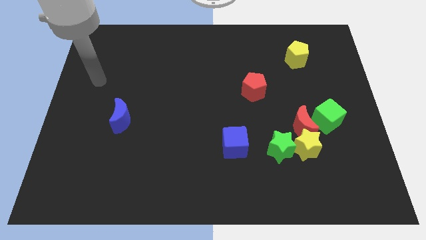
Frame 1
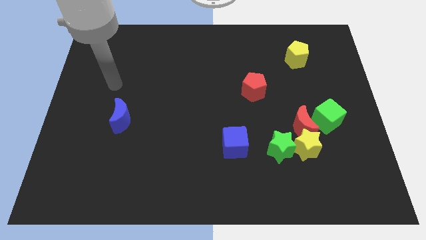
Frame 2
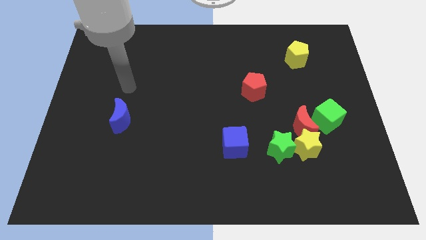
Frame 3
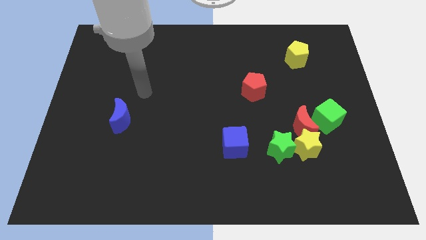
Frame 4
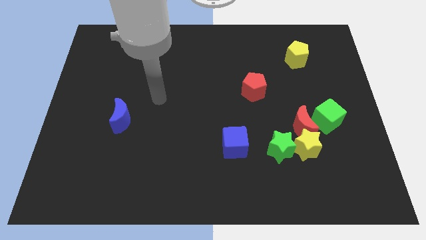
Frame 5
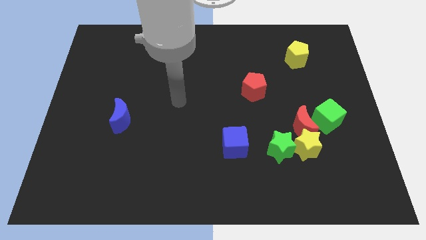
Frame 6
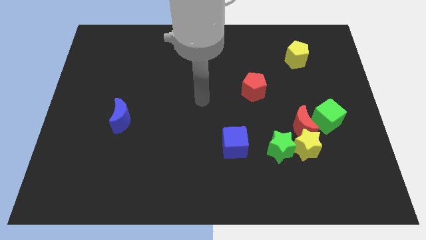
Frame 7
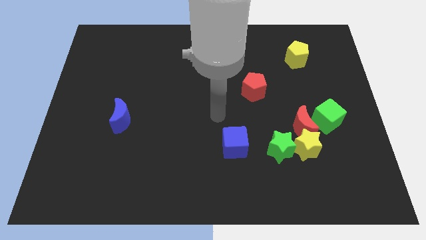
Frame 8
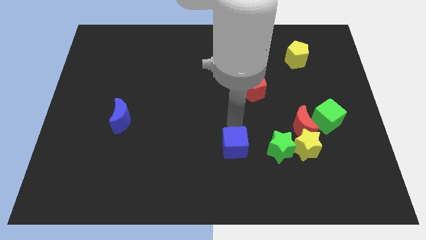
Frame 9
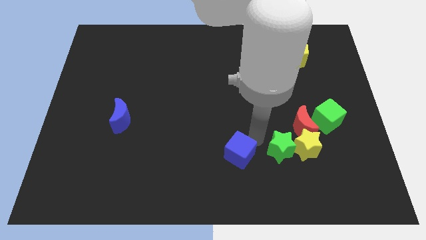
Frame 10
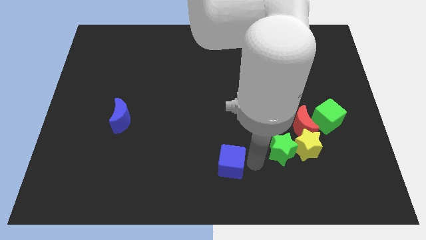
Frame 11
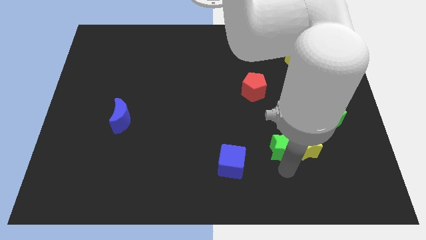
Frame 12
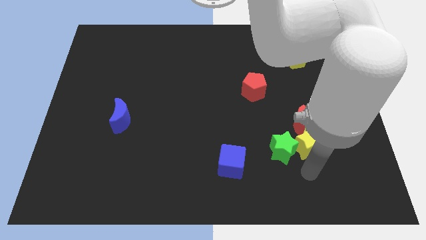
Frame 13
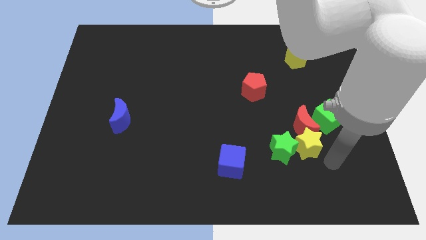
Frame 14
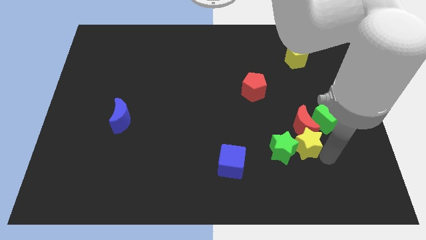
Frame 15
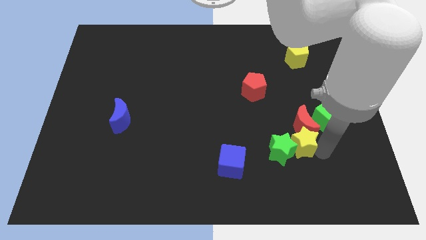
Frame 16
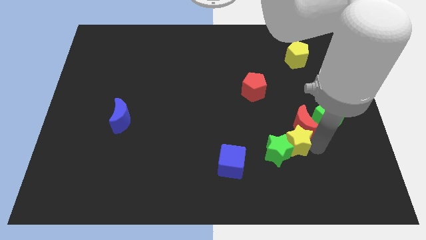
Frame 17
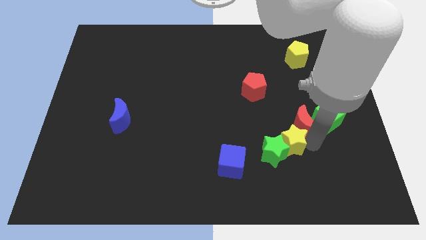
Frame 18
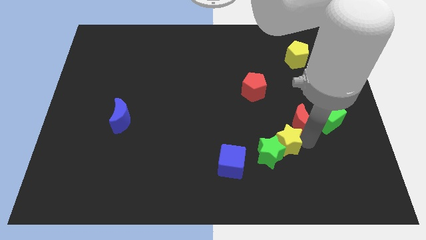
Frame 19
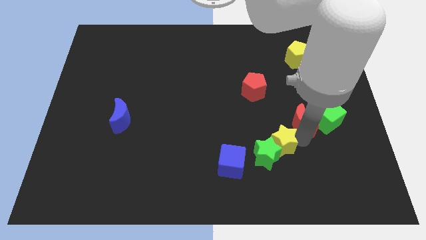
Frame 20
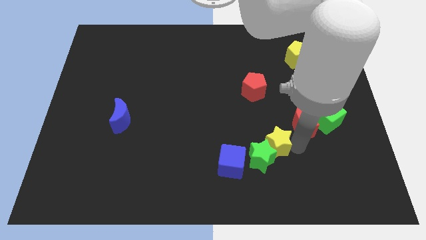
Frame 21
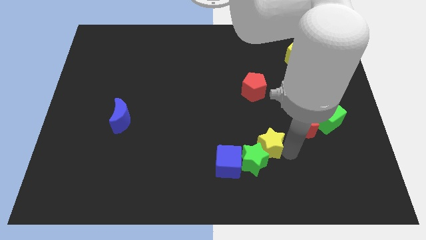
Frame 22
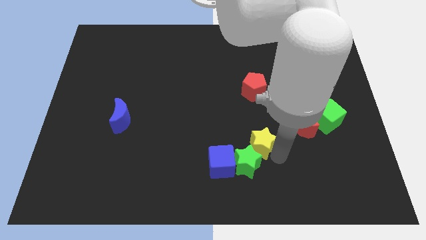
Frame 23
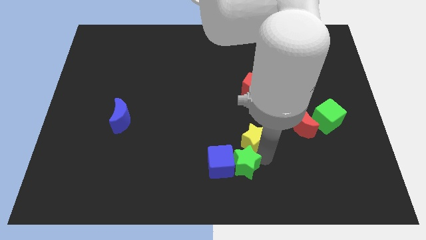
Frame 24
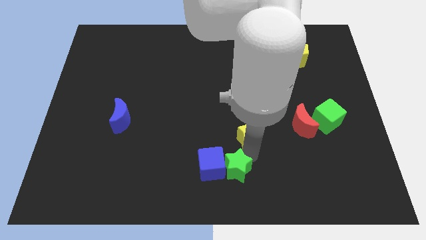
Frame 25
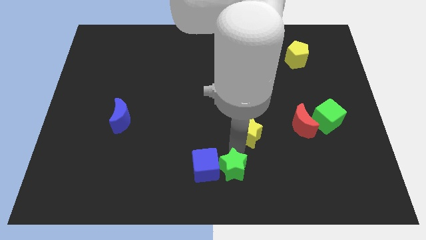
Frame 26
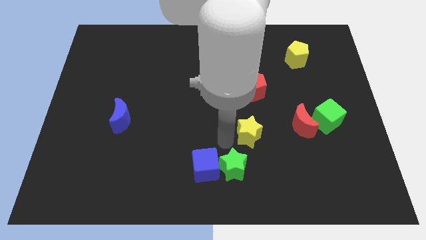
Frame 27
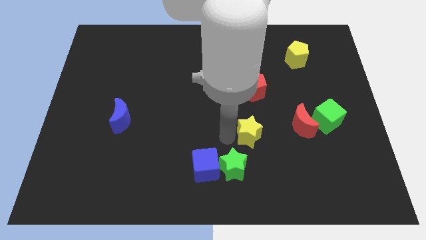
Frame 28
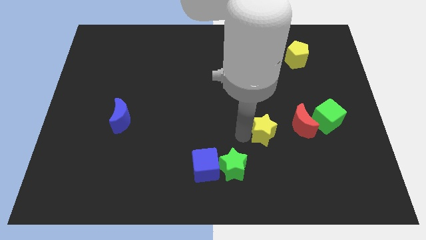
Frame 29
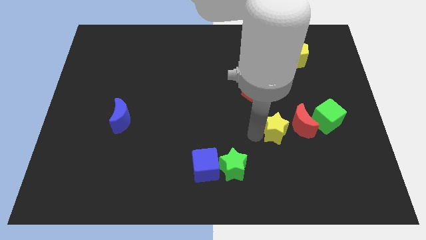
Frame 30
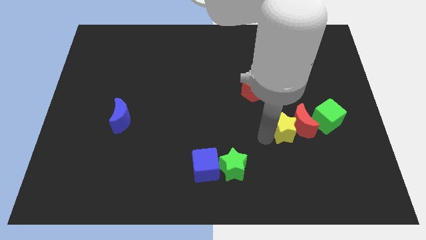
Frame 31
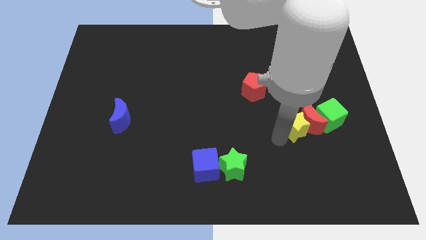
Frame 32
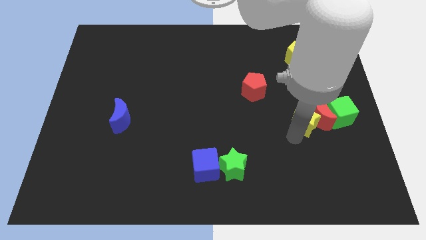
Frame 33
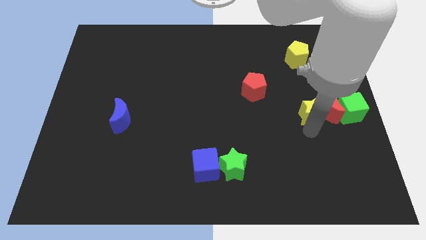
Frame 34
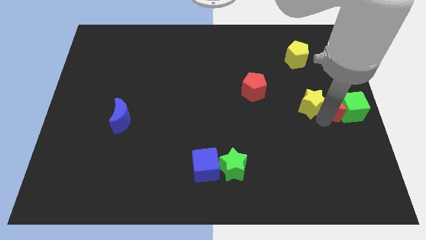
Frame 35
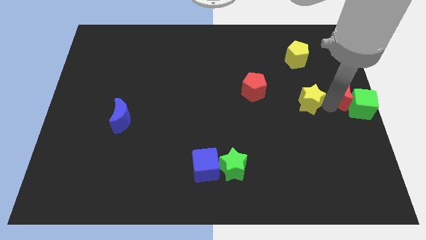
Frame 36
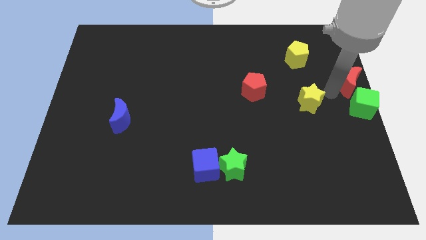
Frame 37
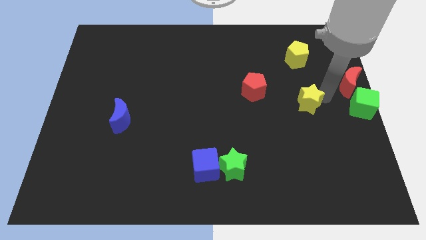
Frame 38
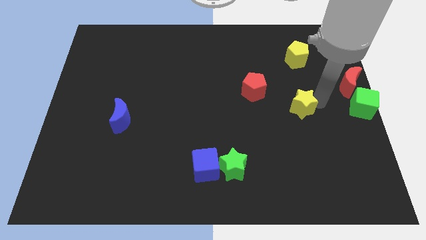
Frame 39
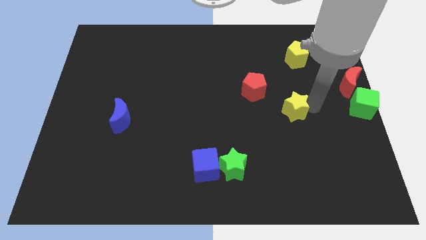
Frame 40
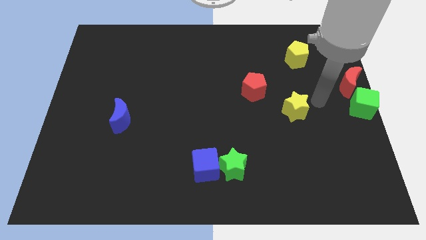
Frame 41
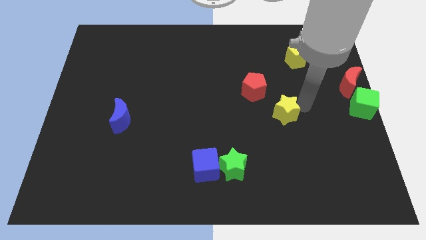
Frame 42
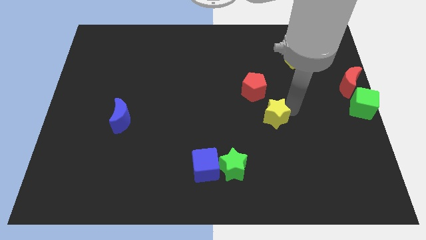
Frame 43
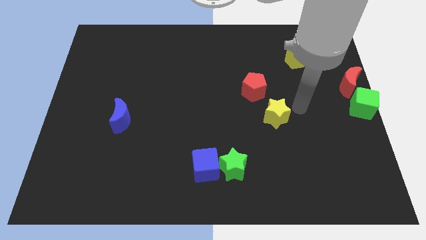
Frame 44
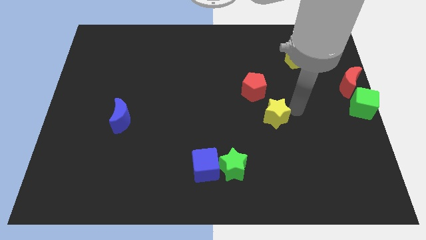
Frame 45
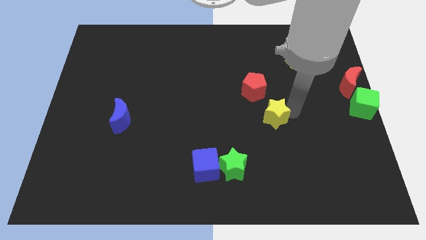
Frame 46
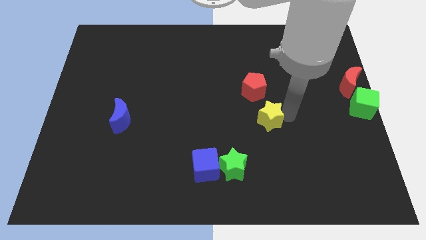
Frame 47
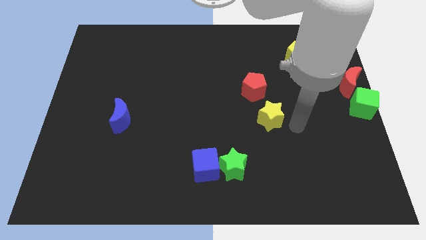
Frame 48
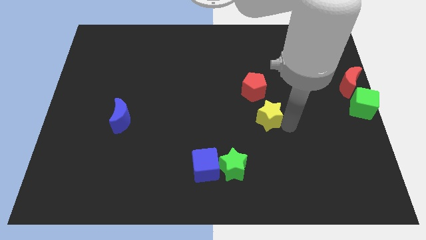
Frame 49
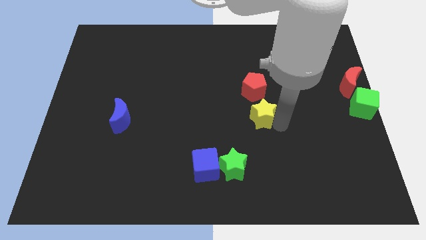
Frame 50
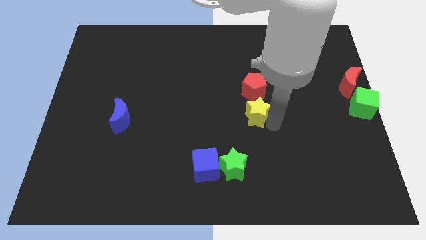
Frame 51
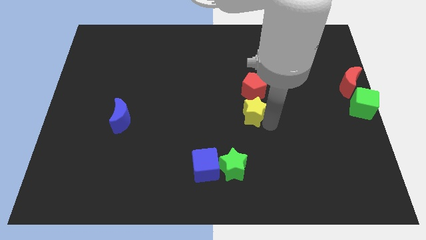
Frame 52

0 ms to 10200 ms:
move the yellow star to the bottom left side of the red pentagon

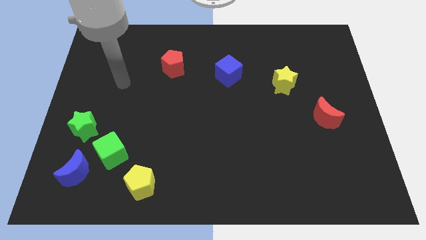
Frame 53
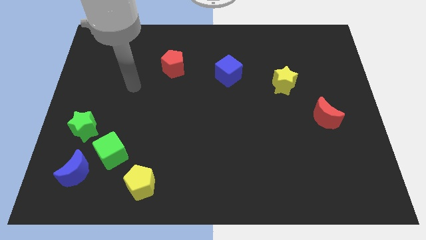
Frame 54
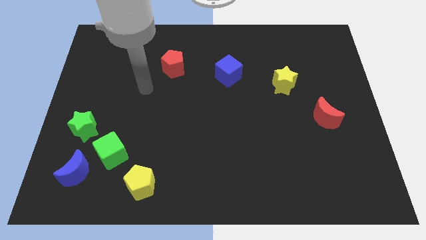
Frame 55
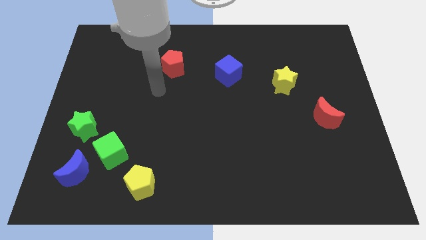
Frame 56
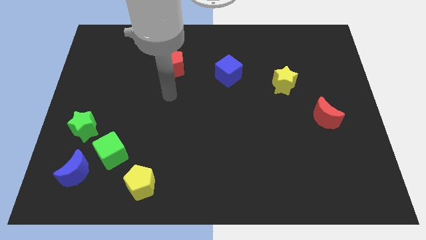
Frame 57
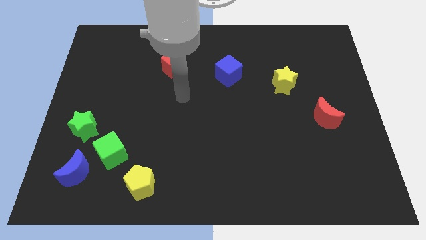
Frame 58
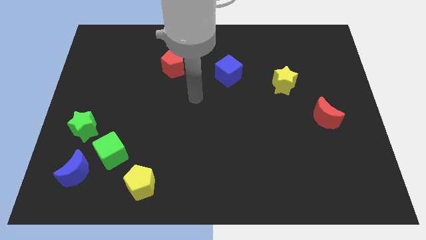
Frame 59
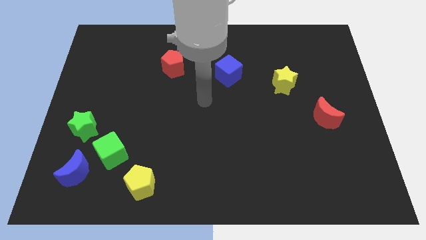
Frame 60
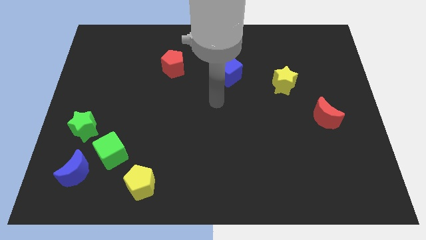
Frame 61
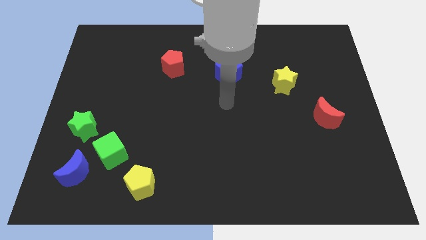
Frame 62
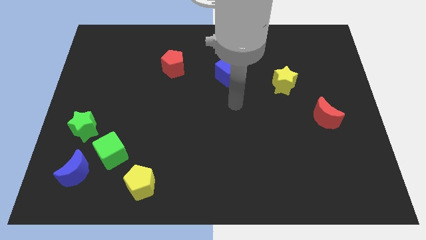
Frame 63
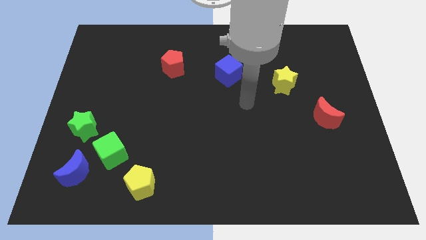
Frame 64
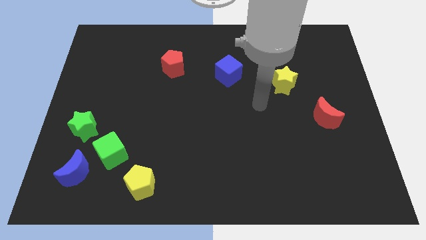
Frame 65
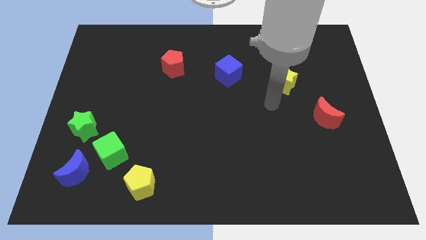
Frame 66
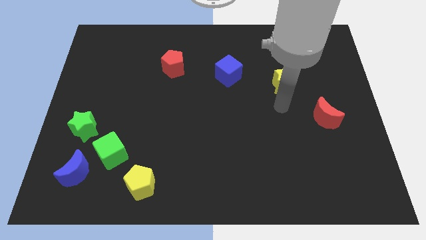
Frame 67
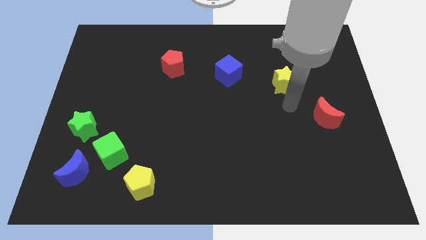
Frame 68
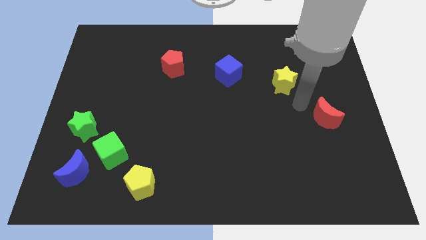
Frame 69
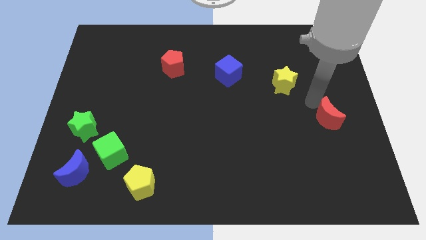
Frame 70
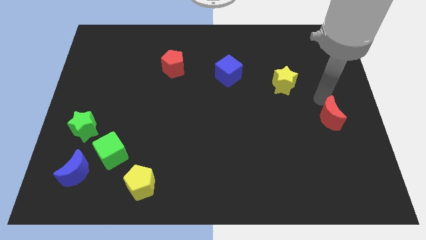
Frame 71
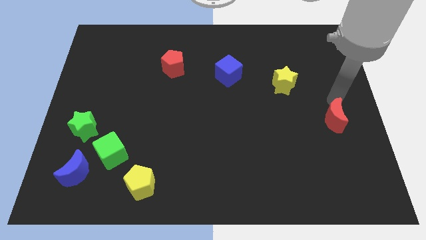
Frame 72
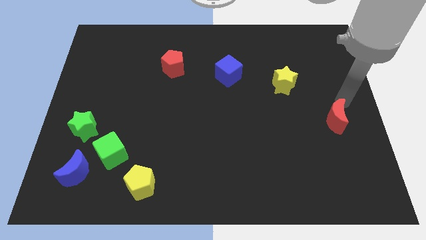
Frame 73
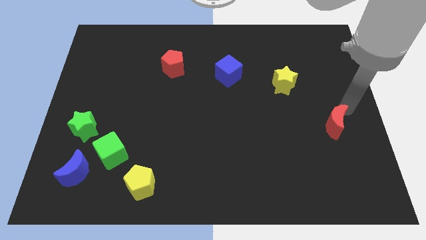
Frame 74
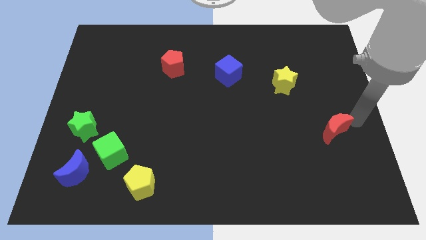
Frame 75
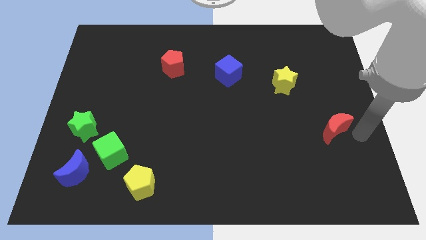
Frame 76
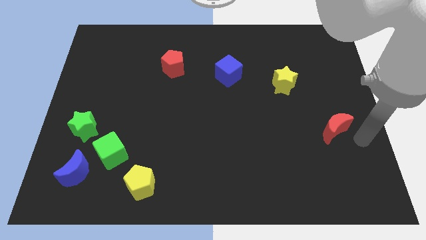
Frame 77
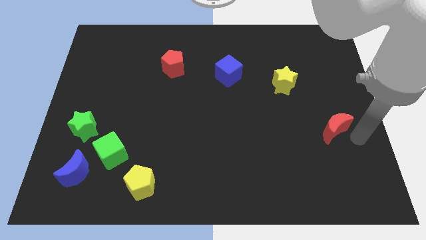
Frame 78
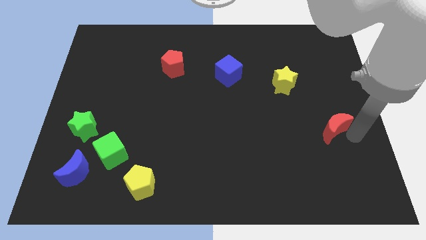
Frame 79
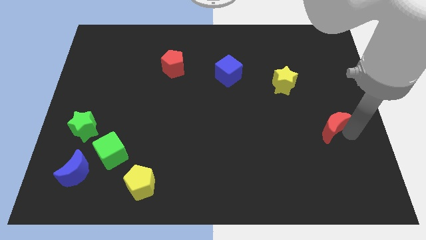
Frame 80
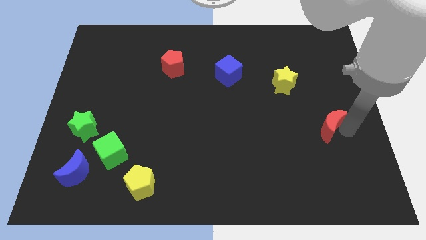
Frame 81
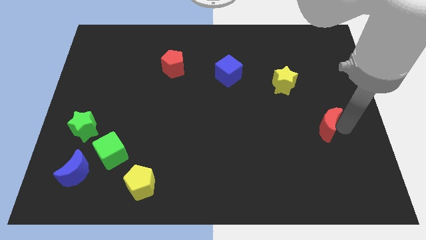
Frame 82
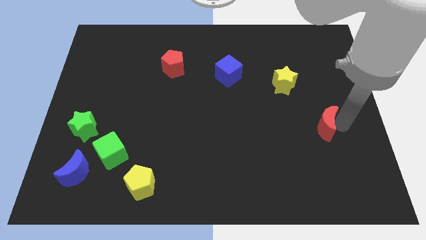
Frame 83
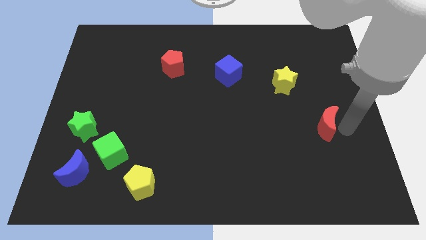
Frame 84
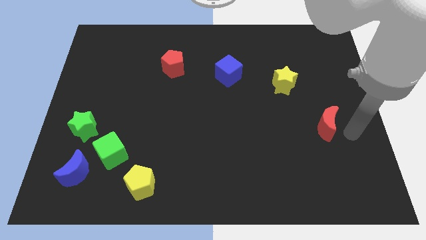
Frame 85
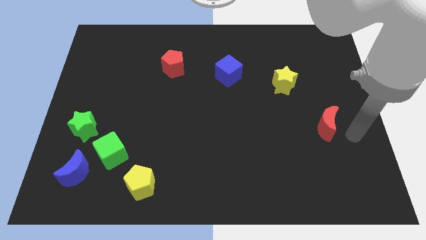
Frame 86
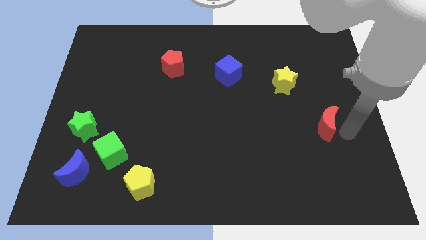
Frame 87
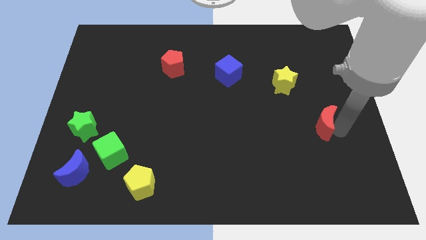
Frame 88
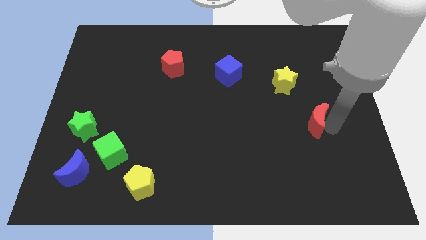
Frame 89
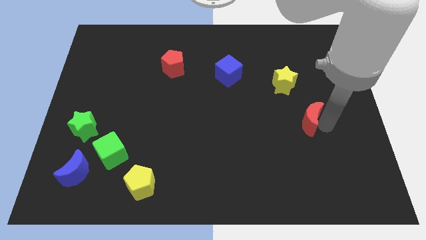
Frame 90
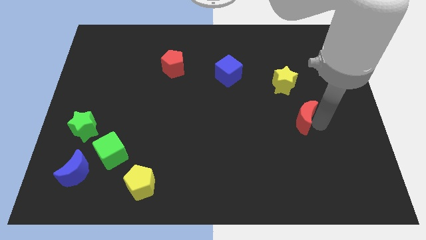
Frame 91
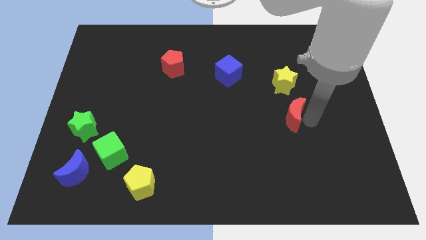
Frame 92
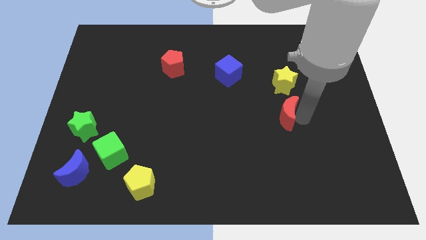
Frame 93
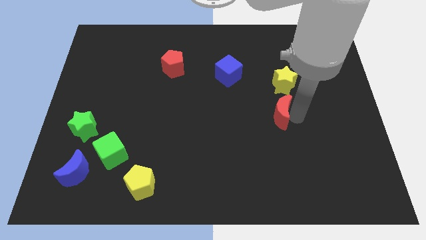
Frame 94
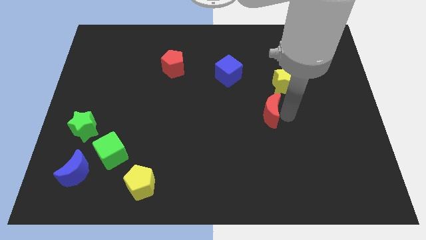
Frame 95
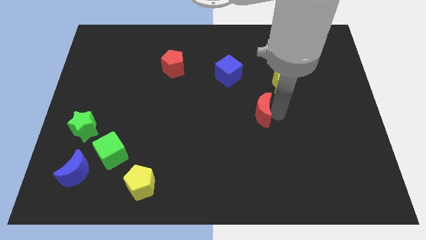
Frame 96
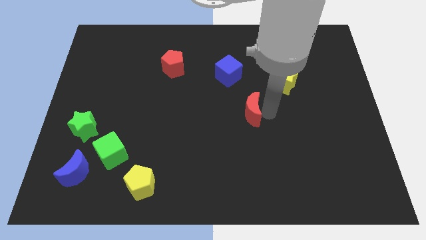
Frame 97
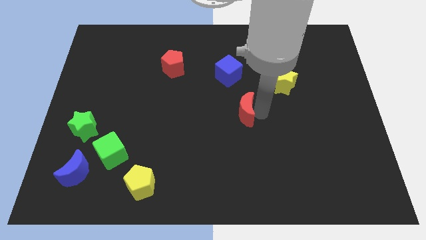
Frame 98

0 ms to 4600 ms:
slide the red moon below the blue cube
